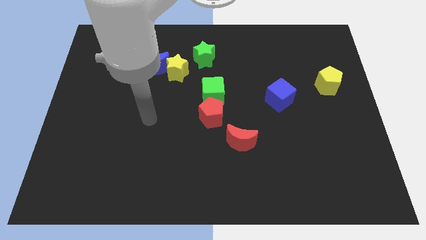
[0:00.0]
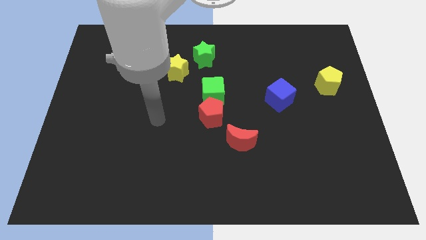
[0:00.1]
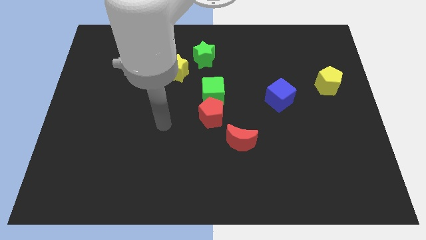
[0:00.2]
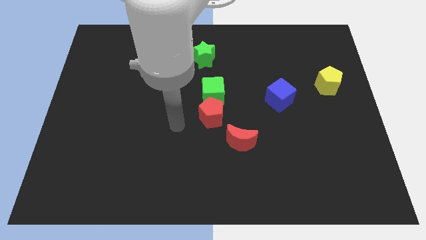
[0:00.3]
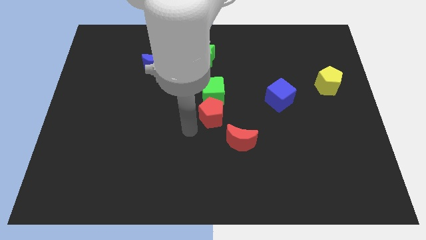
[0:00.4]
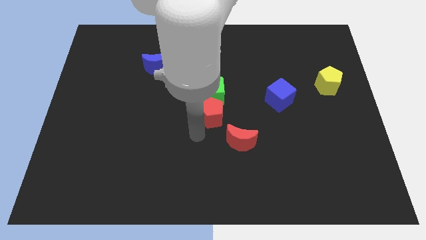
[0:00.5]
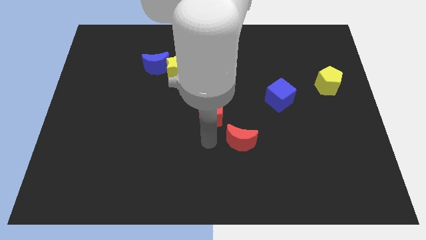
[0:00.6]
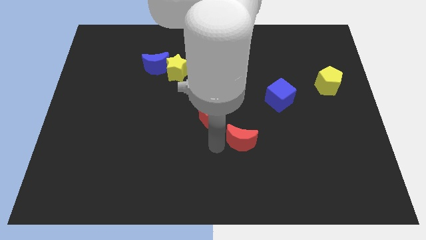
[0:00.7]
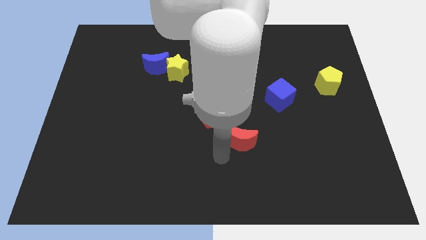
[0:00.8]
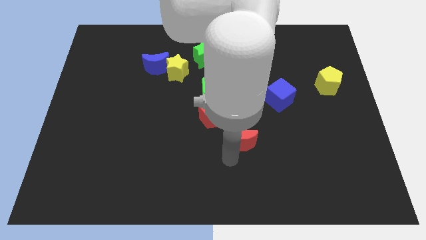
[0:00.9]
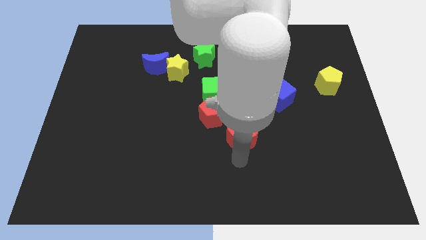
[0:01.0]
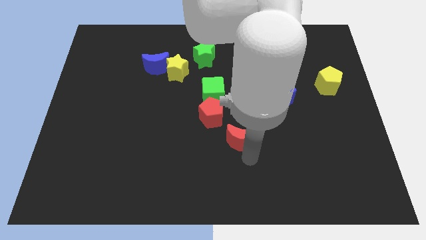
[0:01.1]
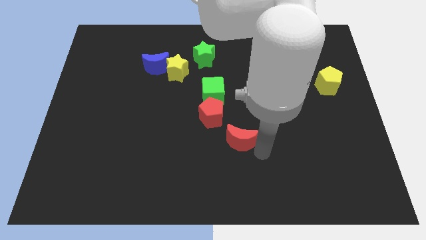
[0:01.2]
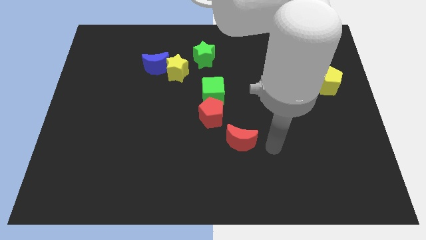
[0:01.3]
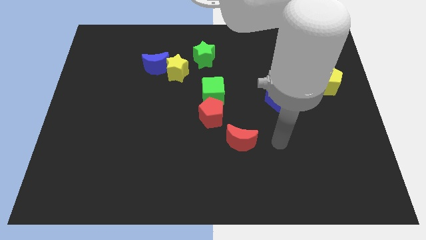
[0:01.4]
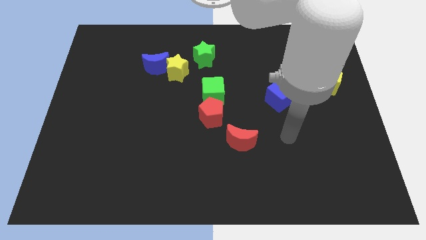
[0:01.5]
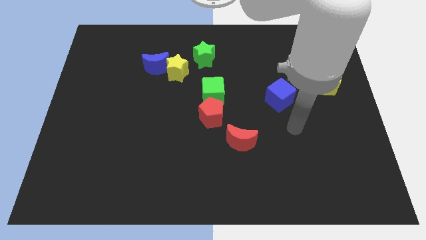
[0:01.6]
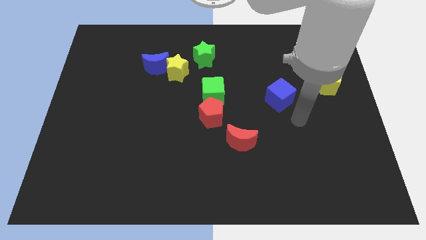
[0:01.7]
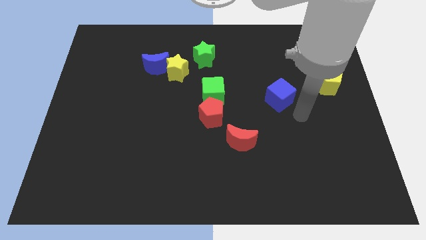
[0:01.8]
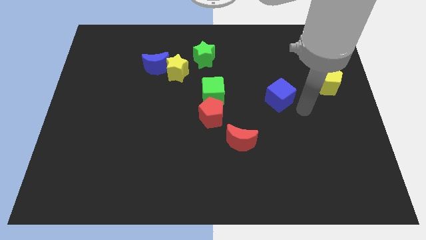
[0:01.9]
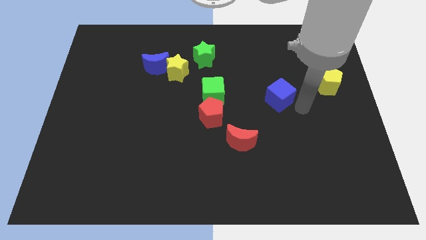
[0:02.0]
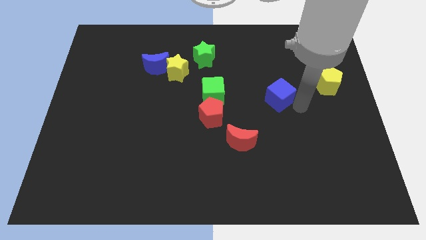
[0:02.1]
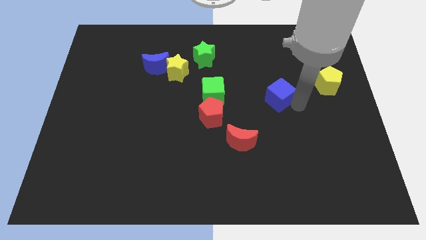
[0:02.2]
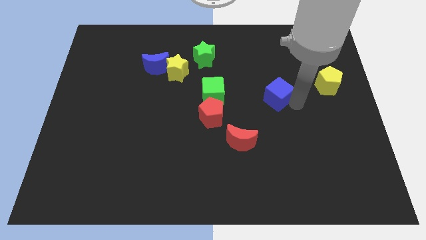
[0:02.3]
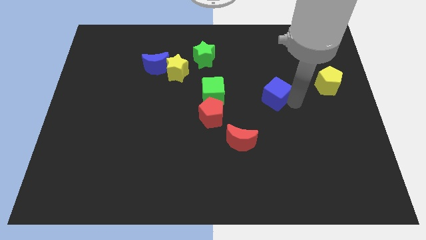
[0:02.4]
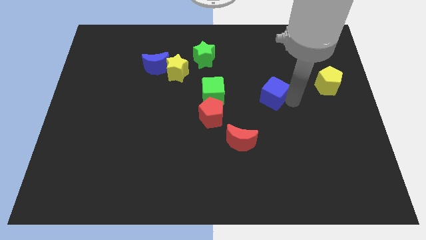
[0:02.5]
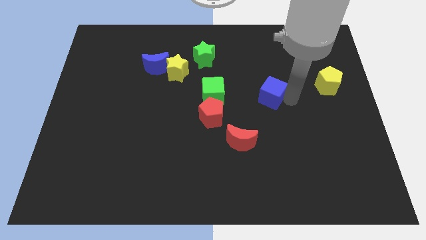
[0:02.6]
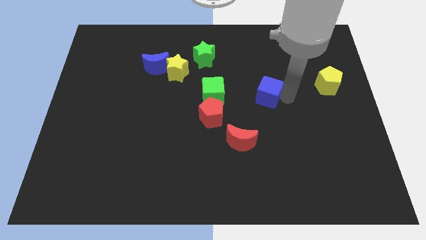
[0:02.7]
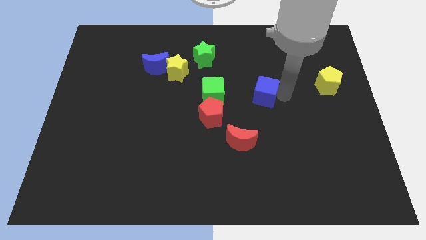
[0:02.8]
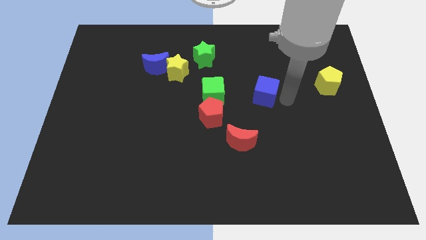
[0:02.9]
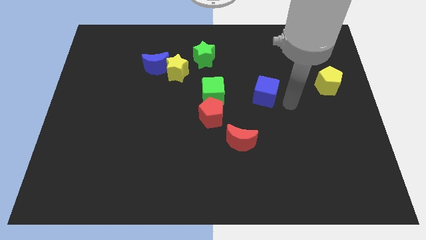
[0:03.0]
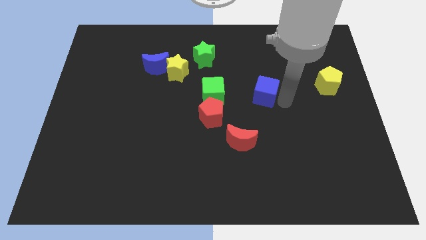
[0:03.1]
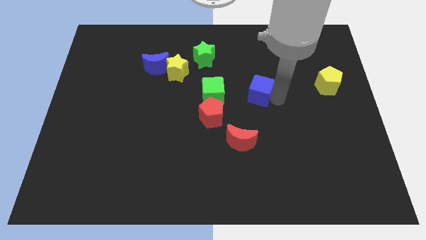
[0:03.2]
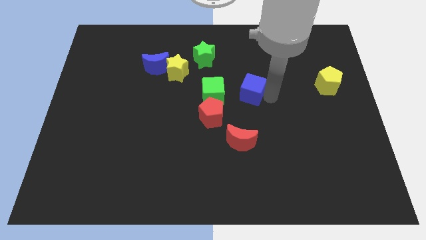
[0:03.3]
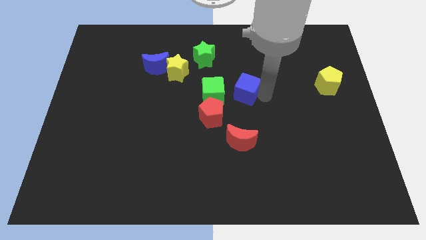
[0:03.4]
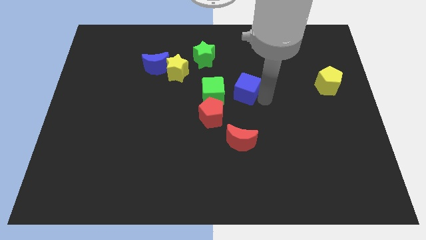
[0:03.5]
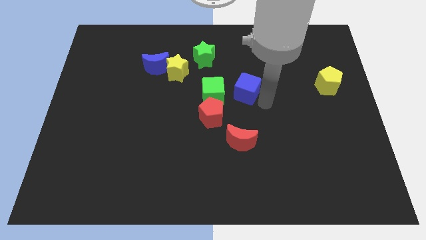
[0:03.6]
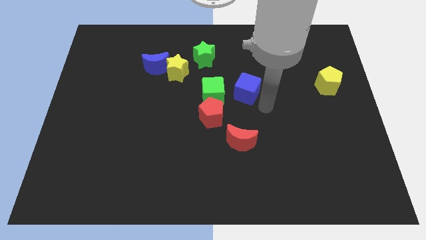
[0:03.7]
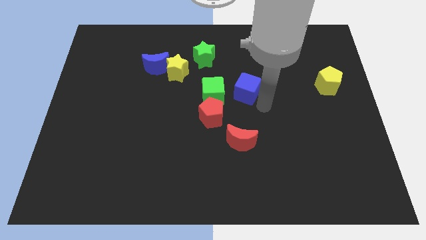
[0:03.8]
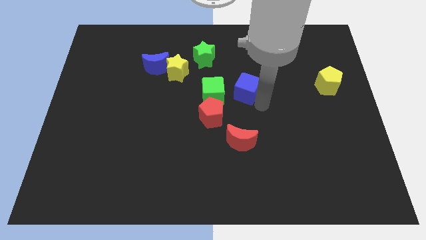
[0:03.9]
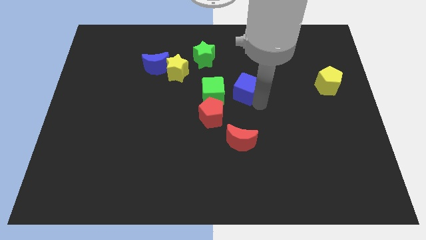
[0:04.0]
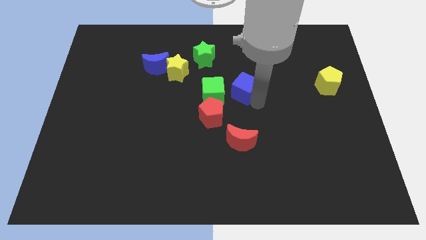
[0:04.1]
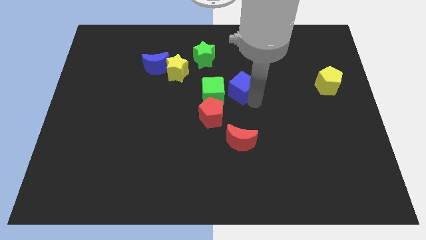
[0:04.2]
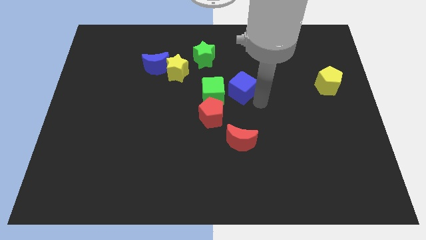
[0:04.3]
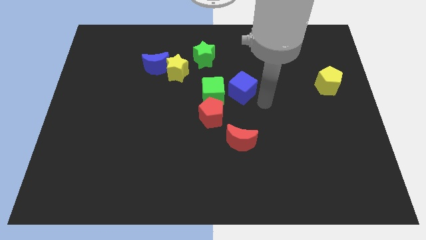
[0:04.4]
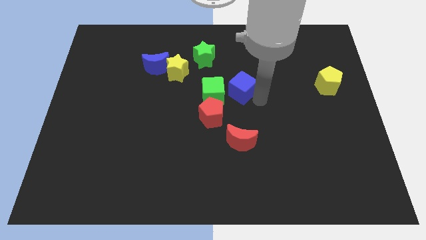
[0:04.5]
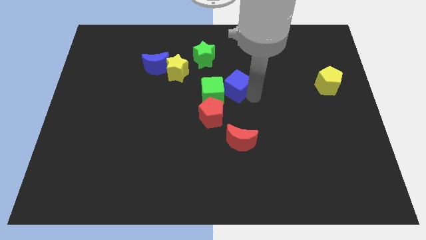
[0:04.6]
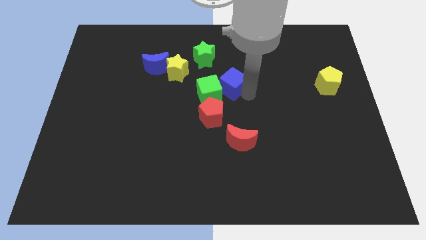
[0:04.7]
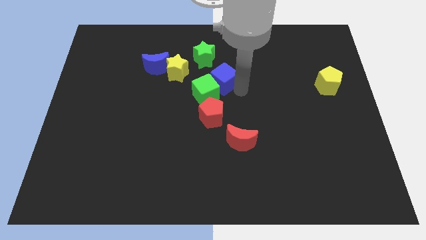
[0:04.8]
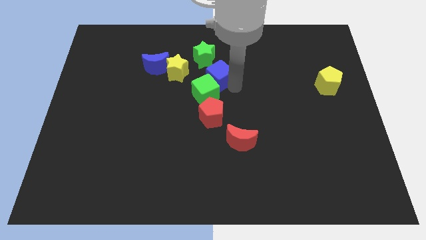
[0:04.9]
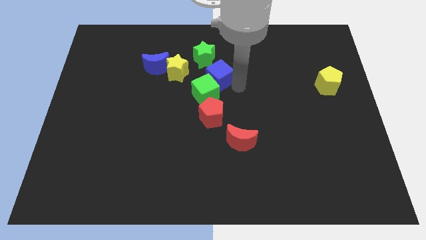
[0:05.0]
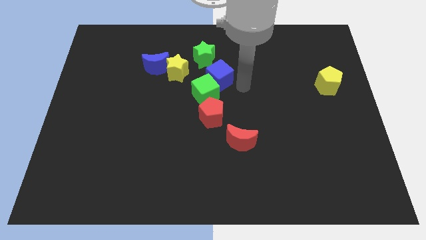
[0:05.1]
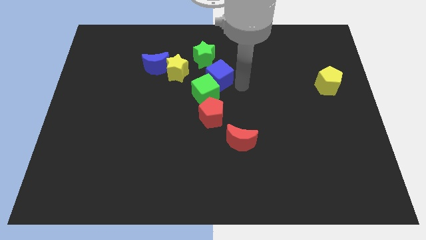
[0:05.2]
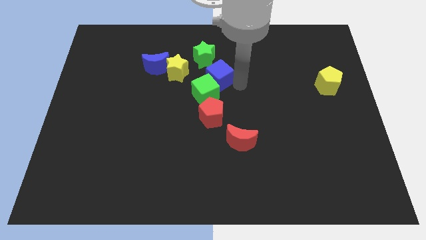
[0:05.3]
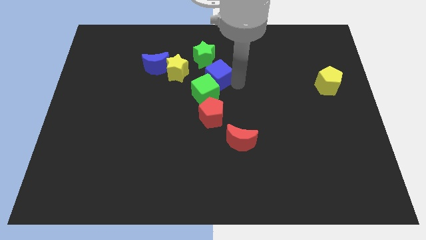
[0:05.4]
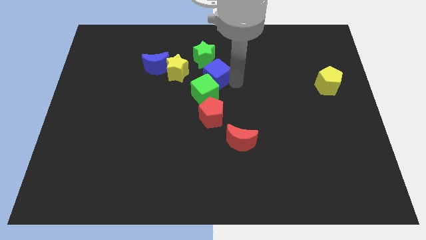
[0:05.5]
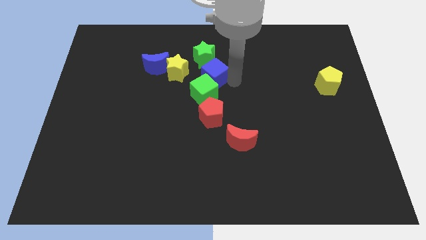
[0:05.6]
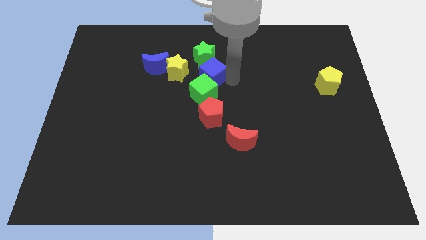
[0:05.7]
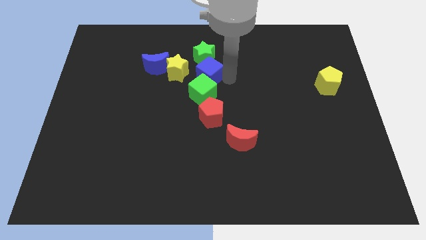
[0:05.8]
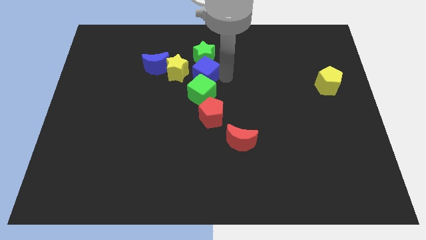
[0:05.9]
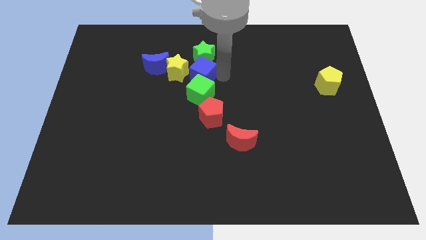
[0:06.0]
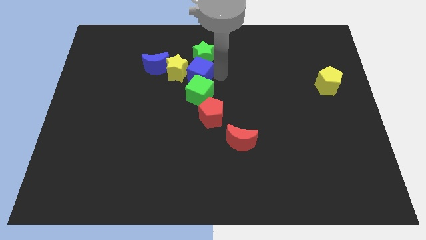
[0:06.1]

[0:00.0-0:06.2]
put the blue cube towards the yellow star

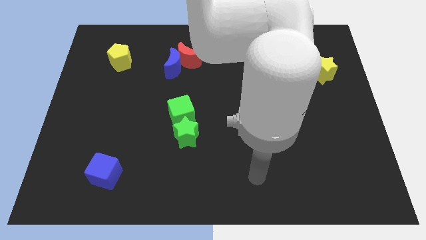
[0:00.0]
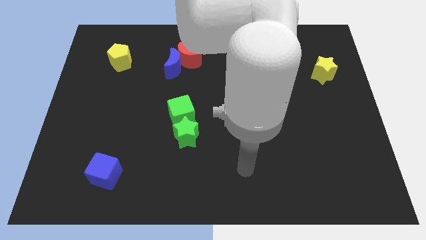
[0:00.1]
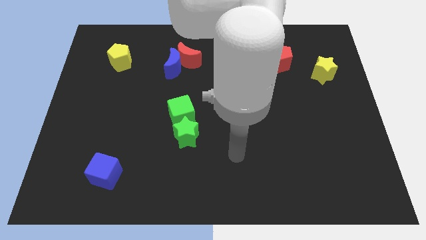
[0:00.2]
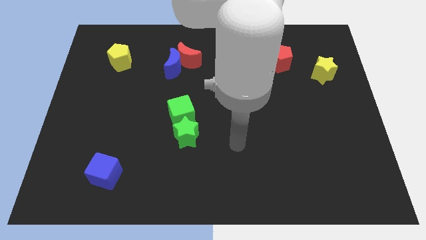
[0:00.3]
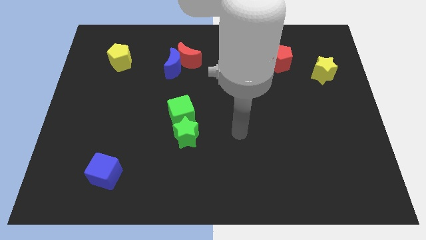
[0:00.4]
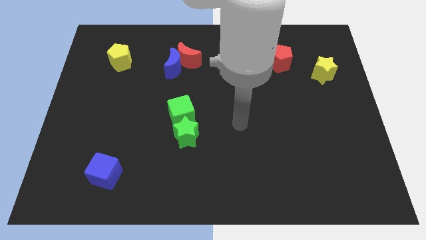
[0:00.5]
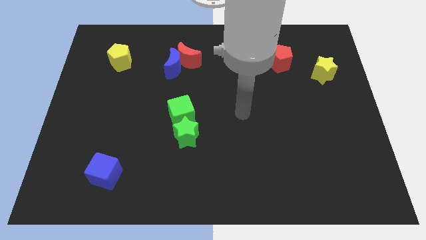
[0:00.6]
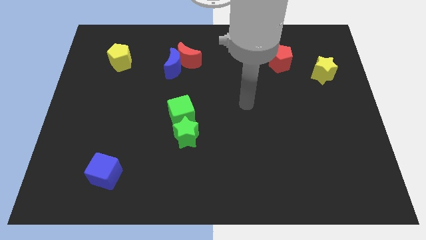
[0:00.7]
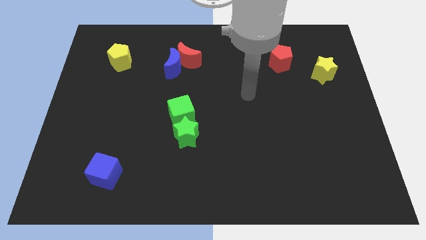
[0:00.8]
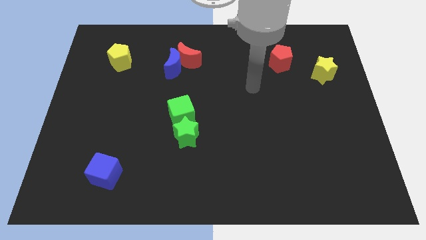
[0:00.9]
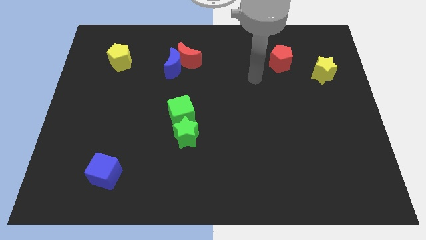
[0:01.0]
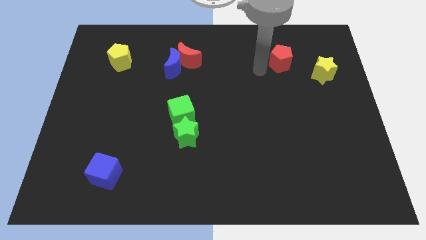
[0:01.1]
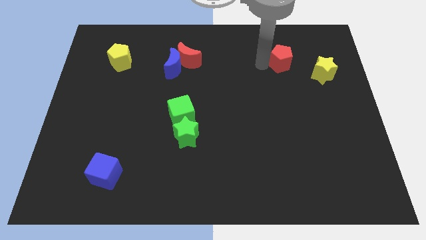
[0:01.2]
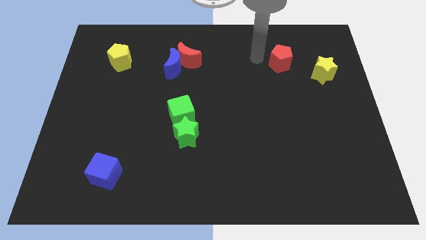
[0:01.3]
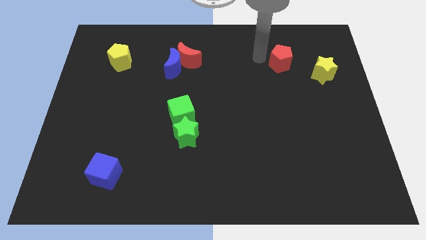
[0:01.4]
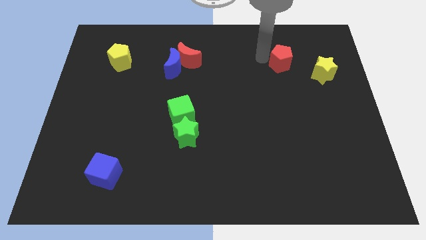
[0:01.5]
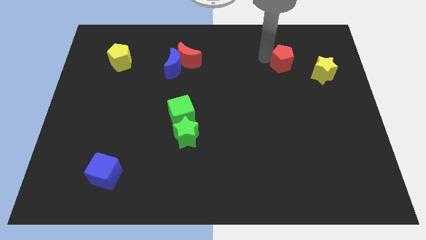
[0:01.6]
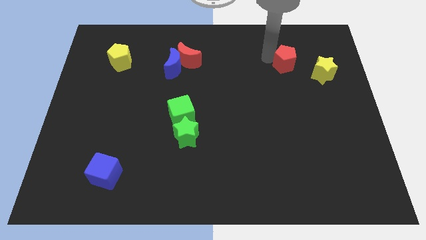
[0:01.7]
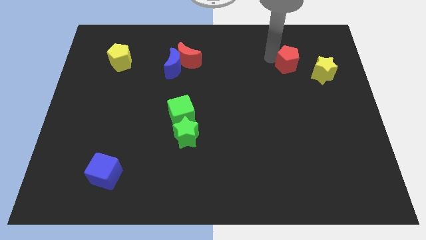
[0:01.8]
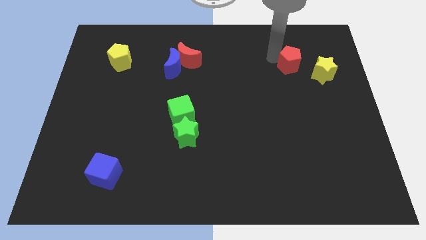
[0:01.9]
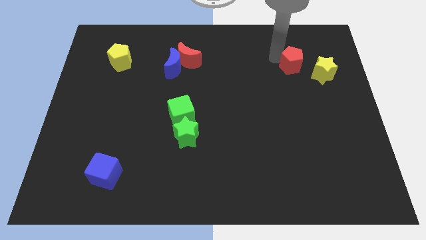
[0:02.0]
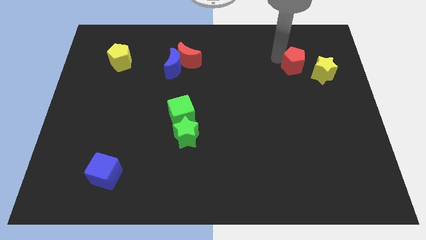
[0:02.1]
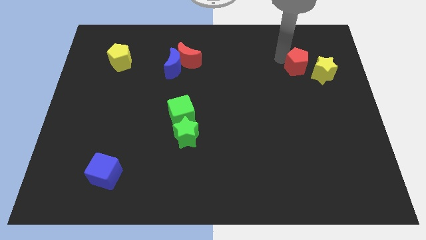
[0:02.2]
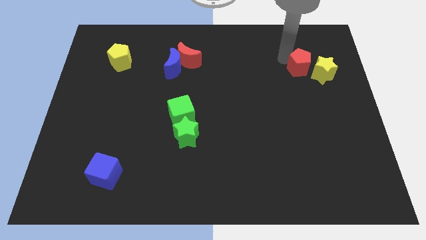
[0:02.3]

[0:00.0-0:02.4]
put the red pentagon next to the yellow star
